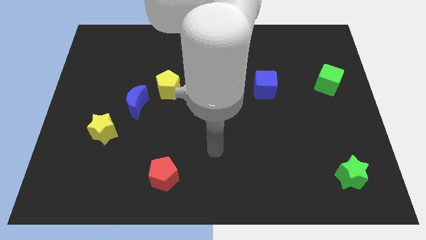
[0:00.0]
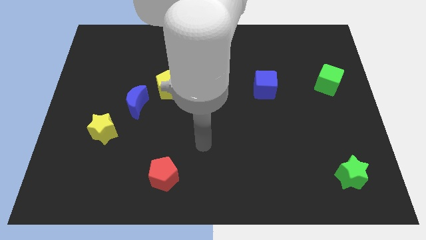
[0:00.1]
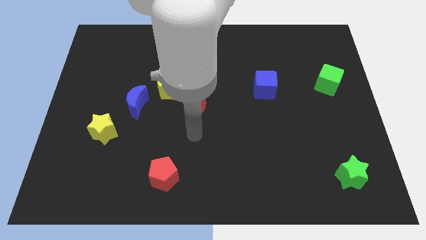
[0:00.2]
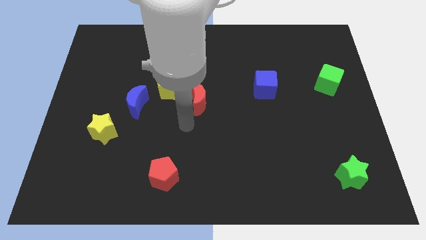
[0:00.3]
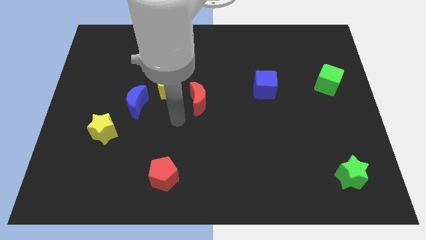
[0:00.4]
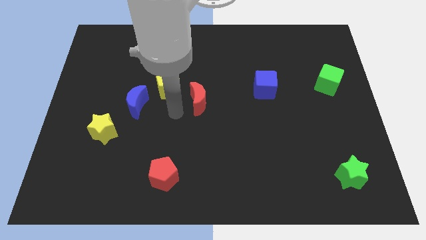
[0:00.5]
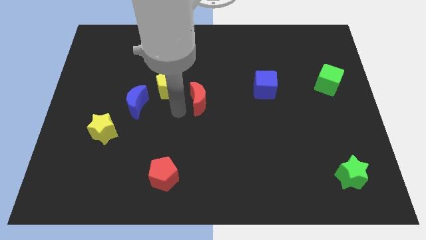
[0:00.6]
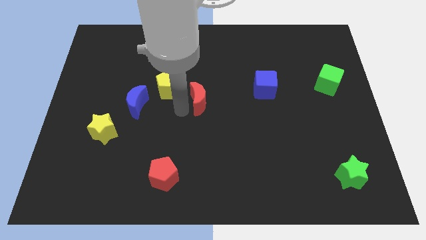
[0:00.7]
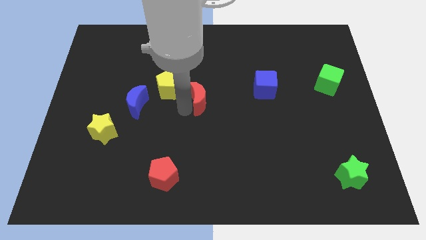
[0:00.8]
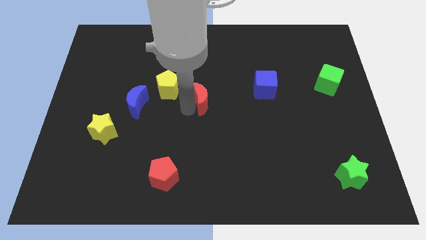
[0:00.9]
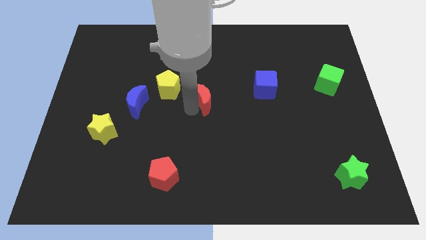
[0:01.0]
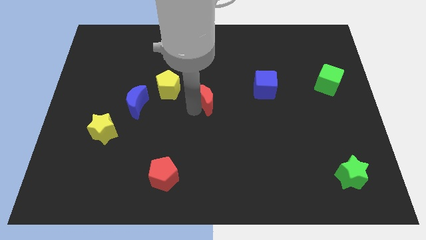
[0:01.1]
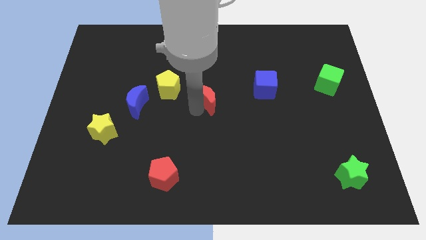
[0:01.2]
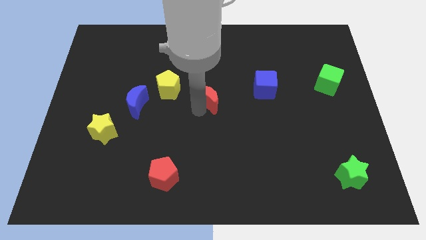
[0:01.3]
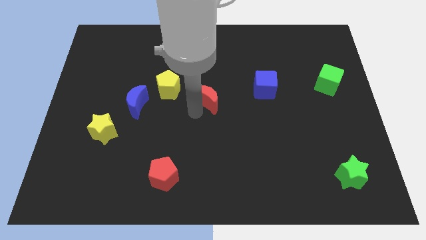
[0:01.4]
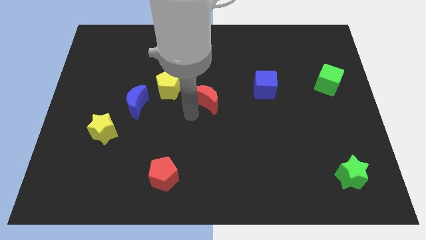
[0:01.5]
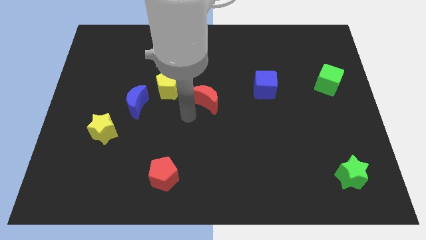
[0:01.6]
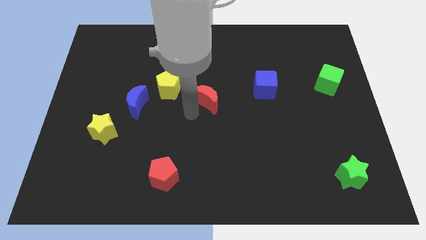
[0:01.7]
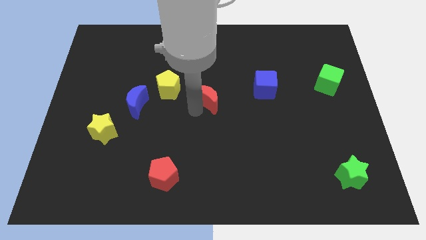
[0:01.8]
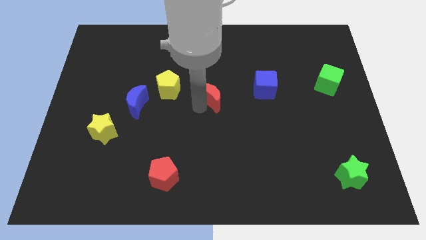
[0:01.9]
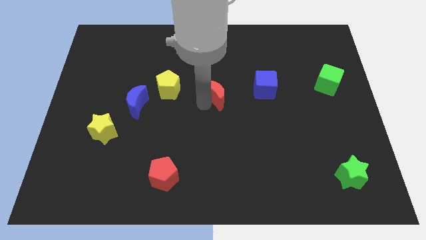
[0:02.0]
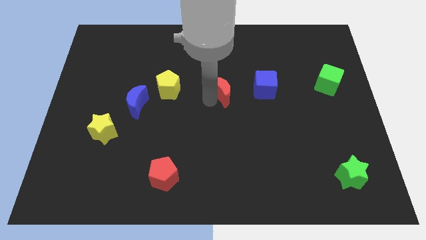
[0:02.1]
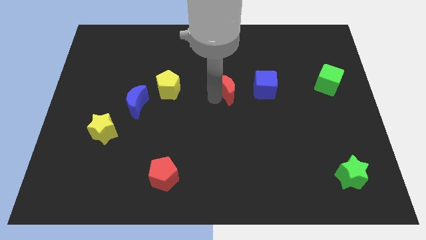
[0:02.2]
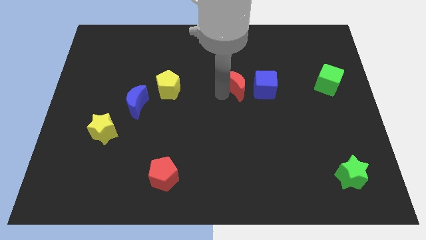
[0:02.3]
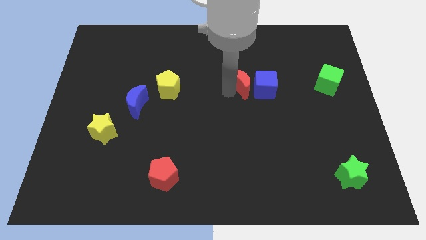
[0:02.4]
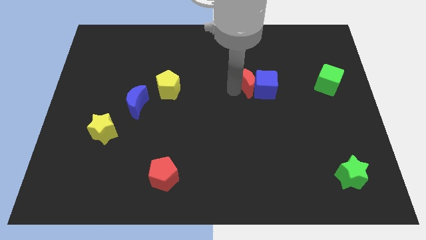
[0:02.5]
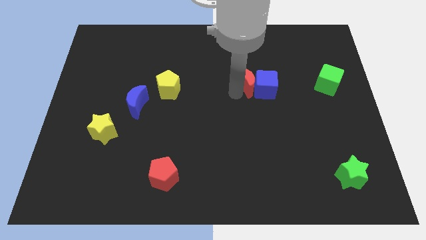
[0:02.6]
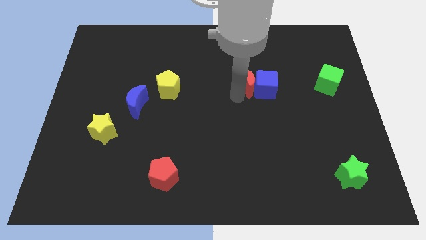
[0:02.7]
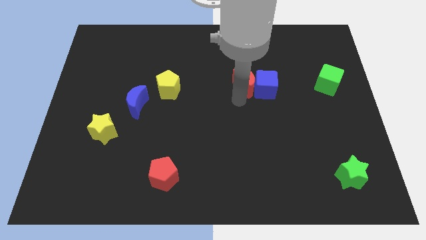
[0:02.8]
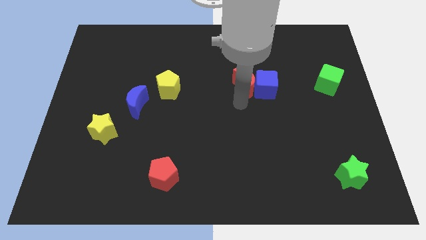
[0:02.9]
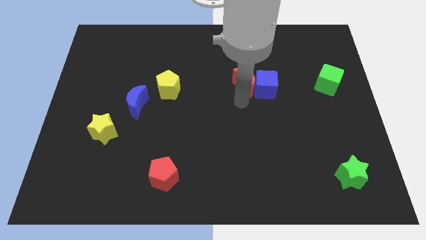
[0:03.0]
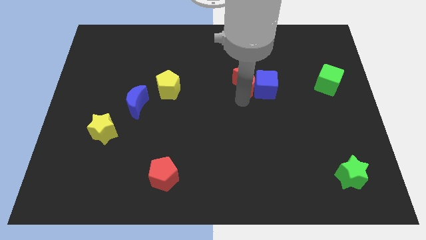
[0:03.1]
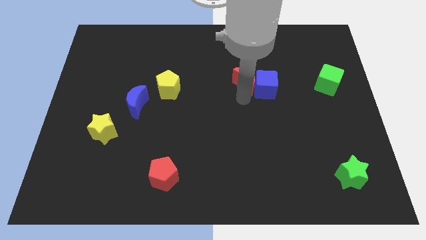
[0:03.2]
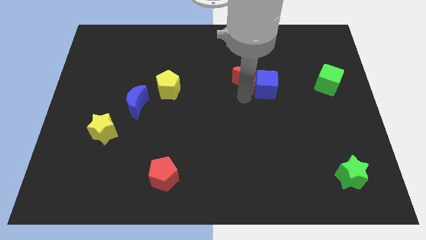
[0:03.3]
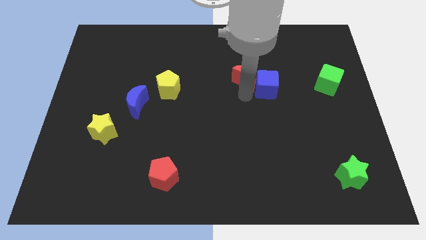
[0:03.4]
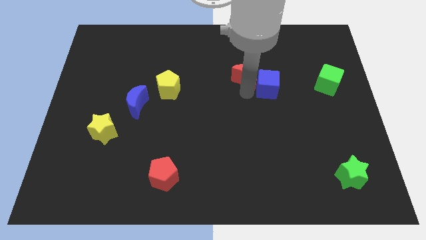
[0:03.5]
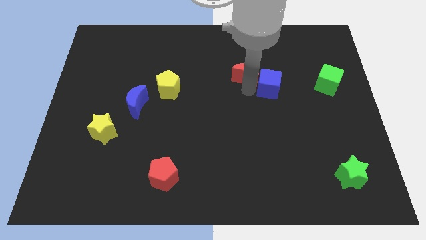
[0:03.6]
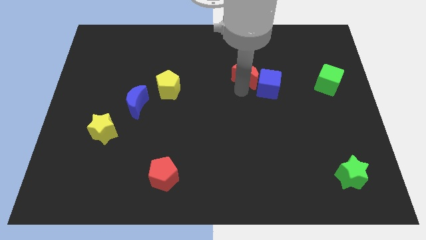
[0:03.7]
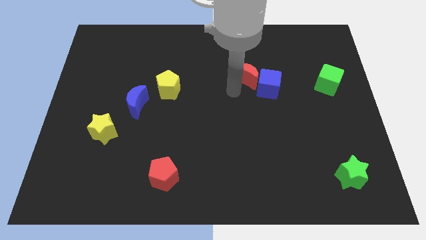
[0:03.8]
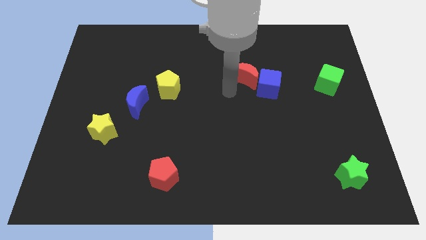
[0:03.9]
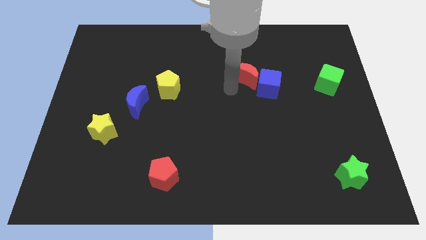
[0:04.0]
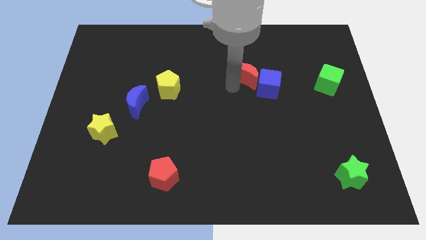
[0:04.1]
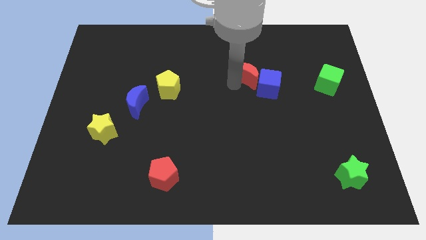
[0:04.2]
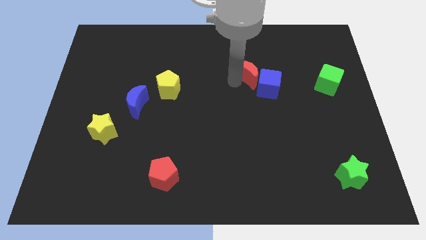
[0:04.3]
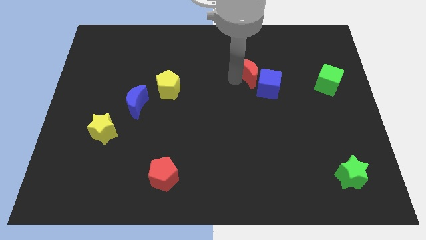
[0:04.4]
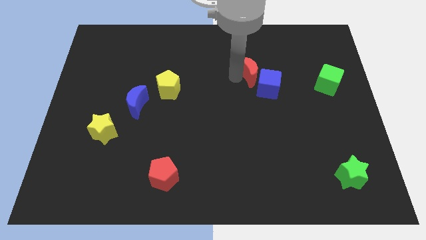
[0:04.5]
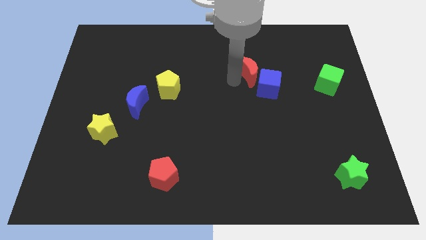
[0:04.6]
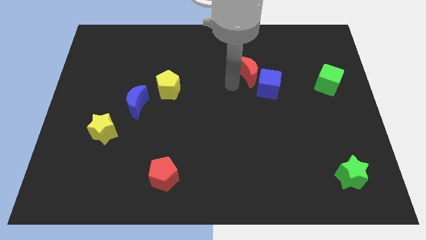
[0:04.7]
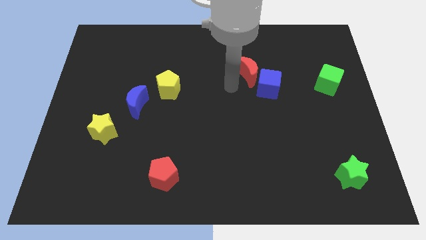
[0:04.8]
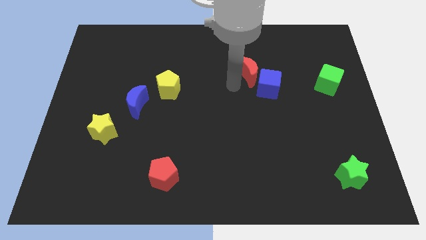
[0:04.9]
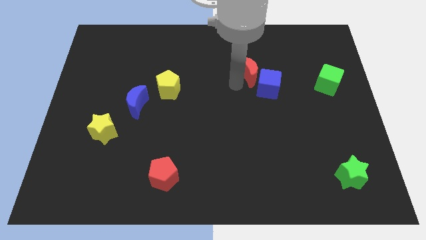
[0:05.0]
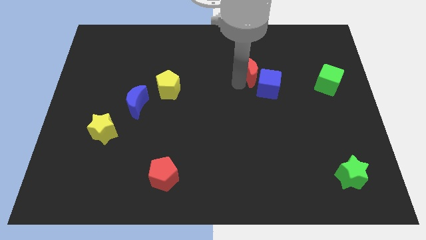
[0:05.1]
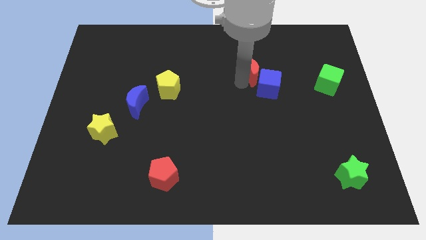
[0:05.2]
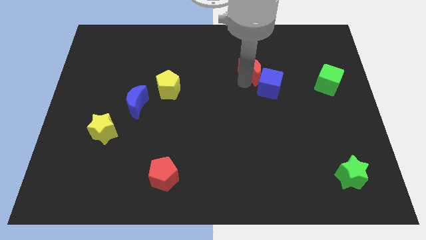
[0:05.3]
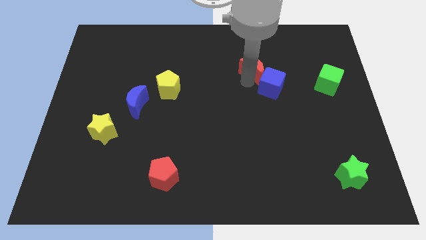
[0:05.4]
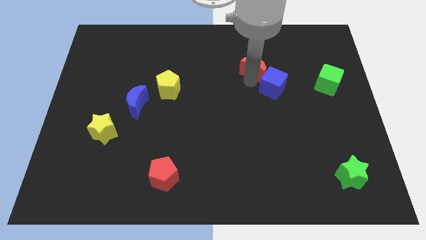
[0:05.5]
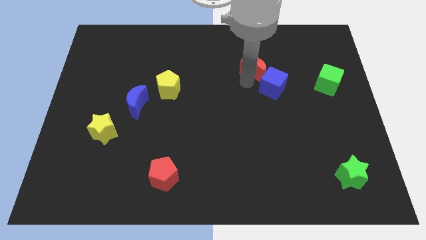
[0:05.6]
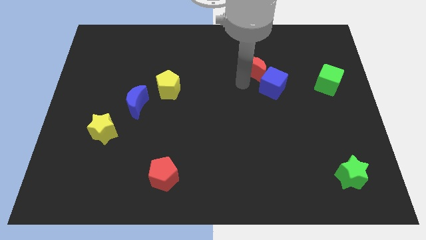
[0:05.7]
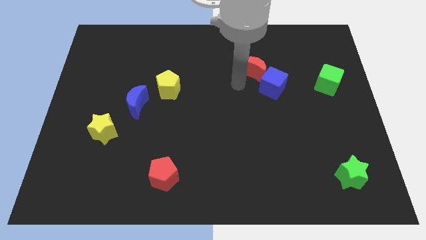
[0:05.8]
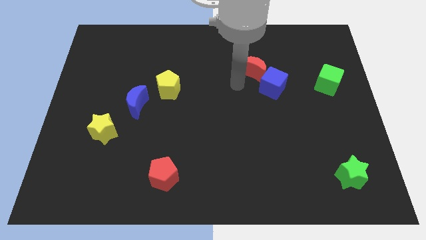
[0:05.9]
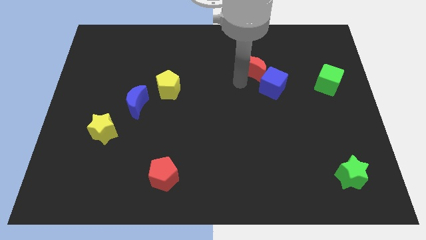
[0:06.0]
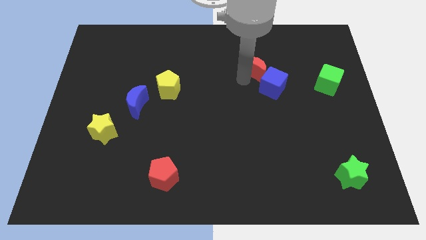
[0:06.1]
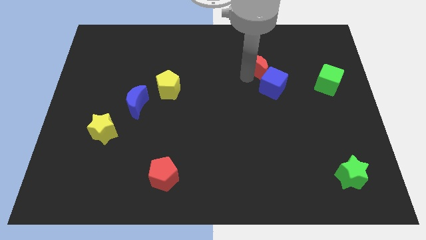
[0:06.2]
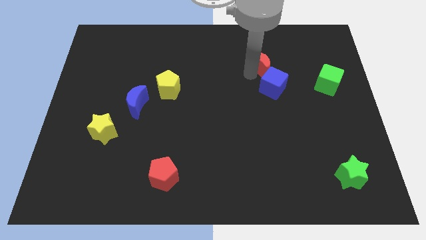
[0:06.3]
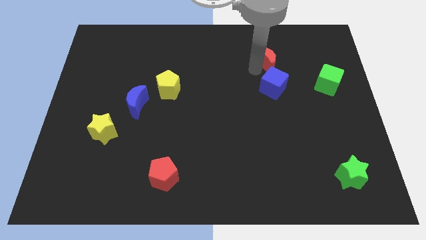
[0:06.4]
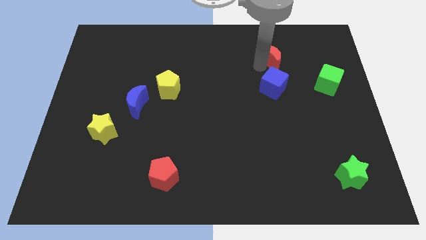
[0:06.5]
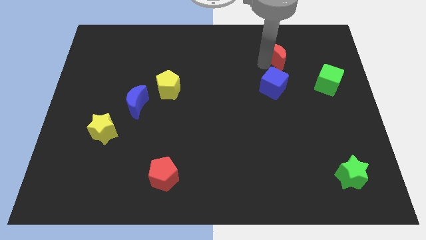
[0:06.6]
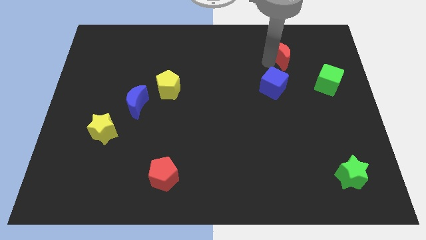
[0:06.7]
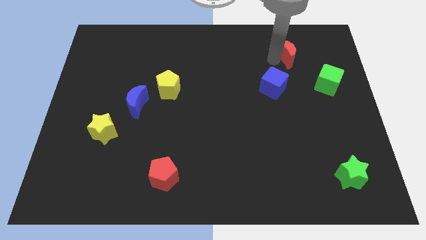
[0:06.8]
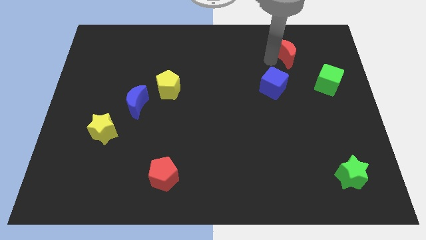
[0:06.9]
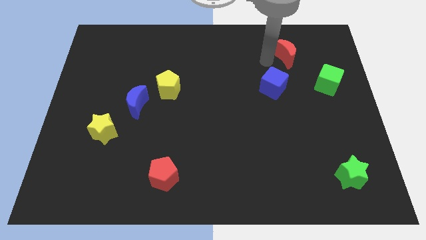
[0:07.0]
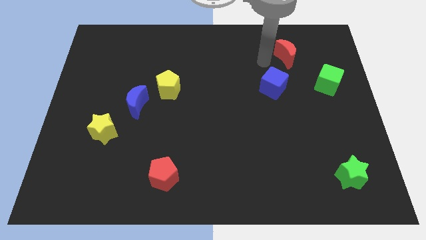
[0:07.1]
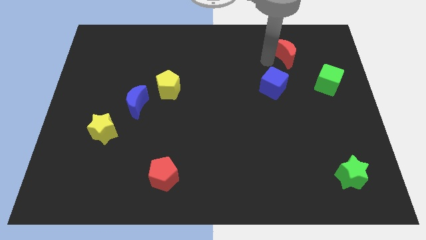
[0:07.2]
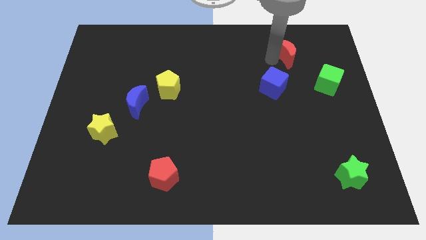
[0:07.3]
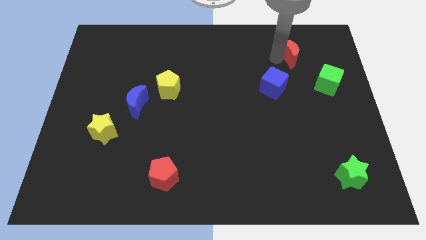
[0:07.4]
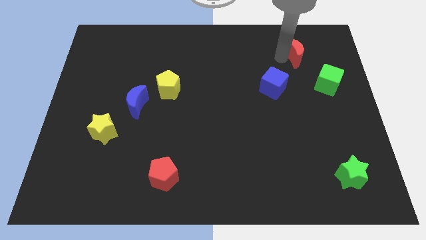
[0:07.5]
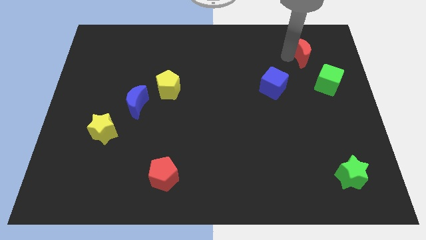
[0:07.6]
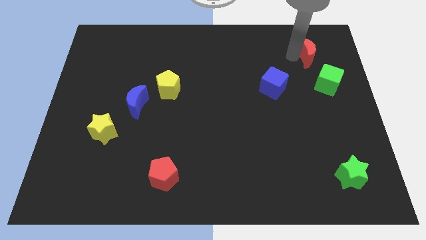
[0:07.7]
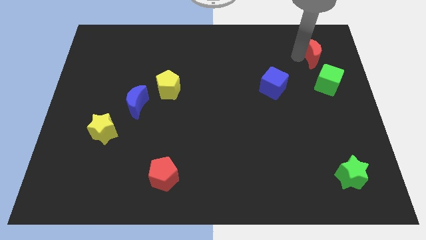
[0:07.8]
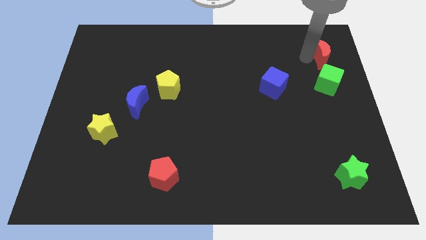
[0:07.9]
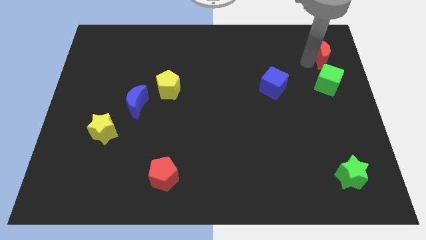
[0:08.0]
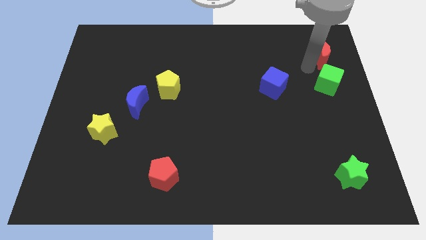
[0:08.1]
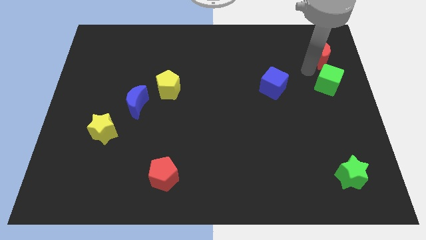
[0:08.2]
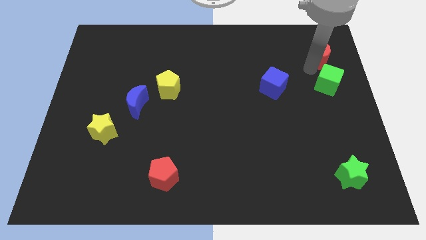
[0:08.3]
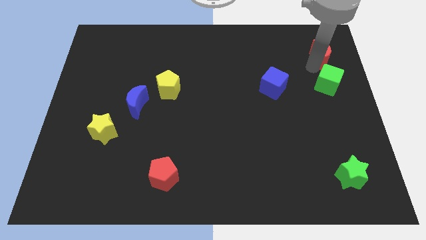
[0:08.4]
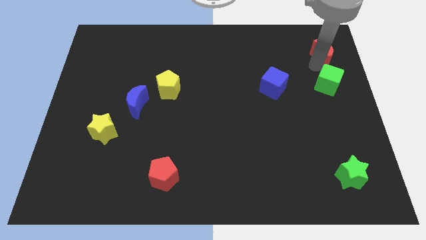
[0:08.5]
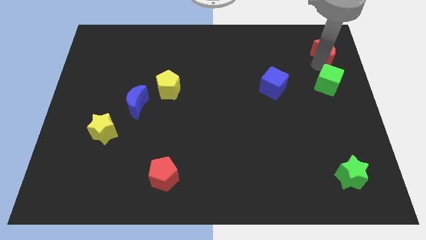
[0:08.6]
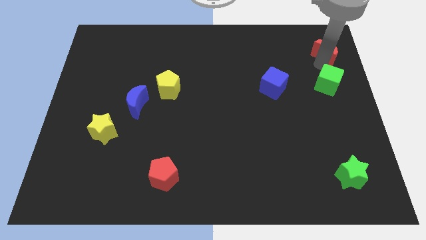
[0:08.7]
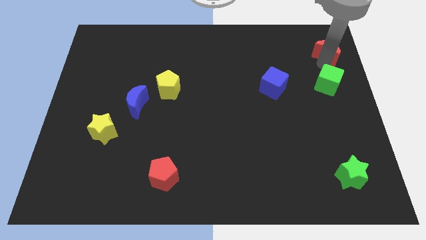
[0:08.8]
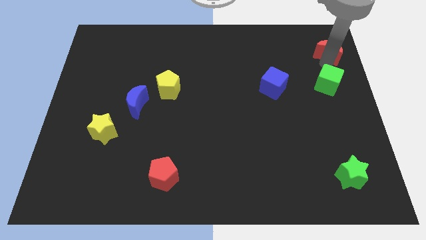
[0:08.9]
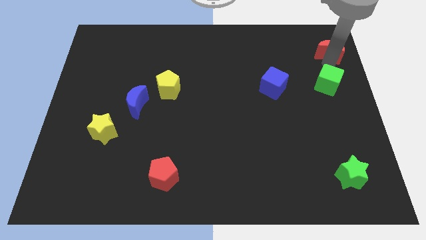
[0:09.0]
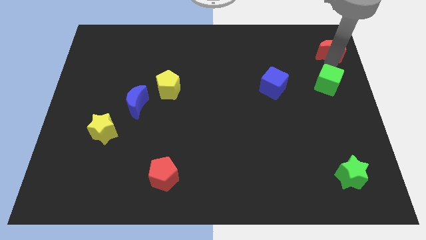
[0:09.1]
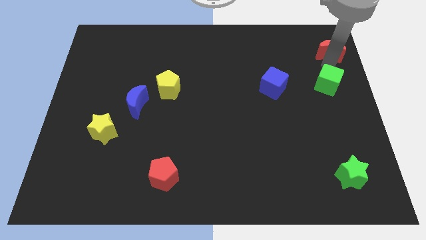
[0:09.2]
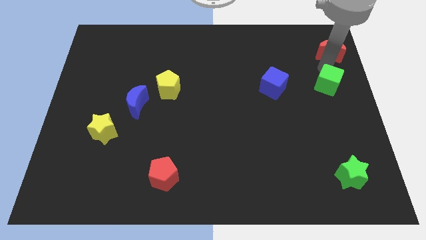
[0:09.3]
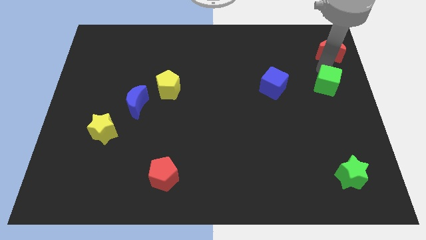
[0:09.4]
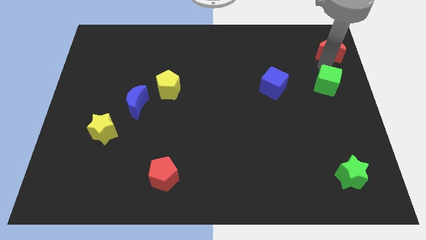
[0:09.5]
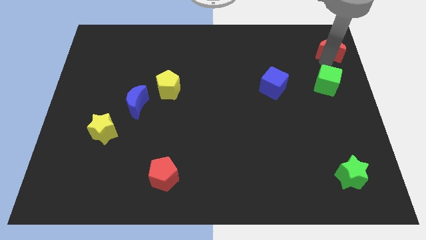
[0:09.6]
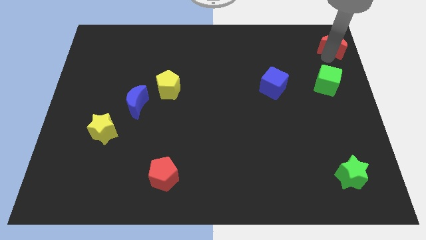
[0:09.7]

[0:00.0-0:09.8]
push the red moon to the top right of the board
